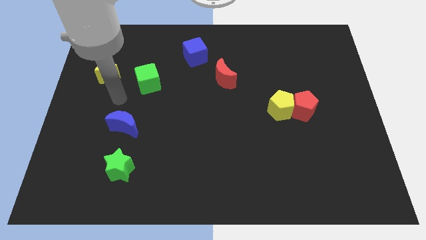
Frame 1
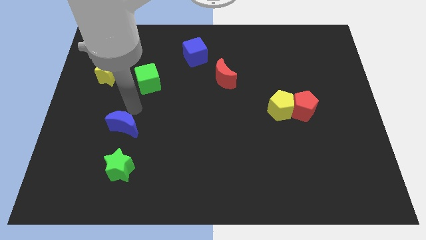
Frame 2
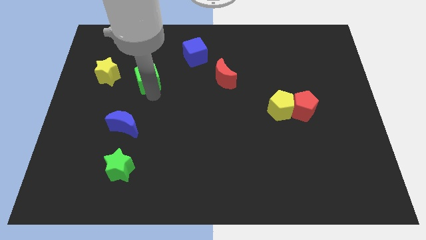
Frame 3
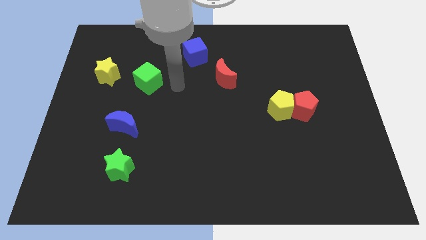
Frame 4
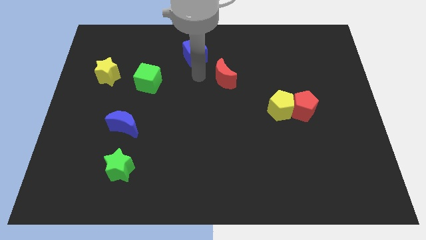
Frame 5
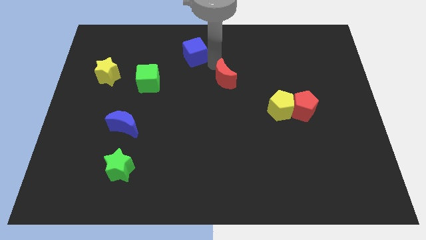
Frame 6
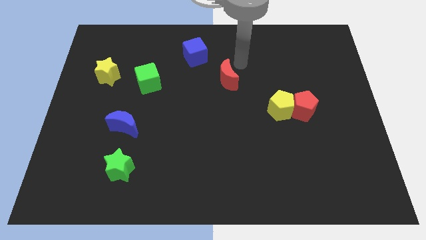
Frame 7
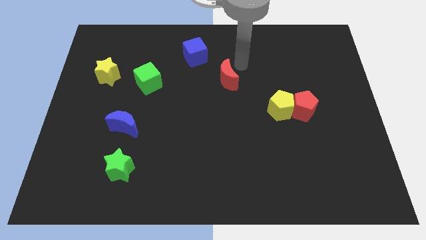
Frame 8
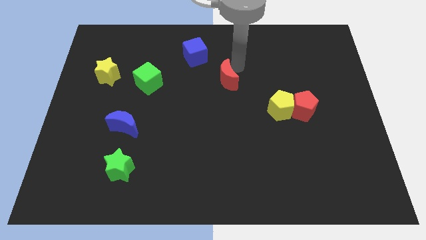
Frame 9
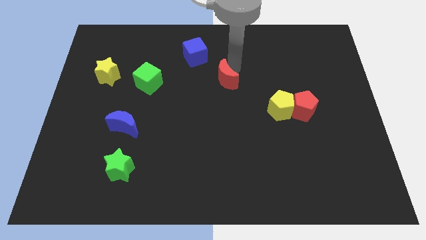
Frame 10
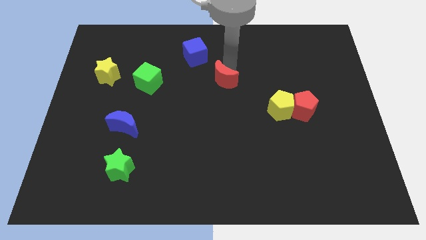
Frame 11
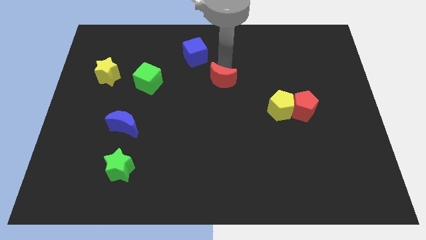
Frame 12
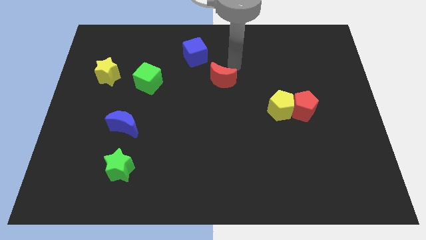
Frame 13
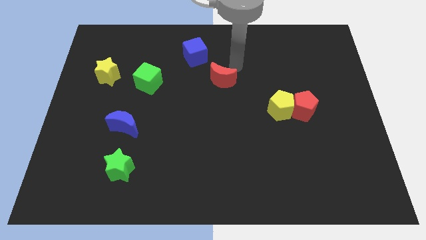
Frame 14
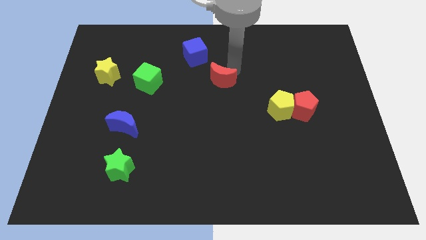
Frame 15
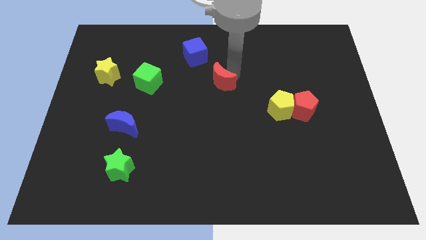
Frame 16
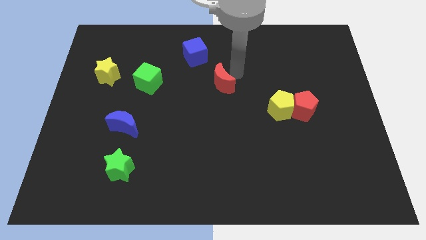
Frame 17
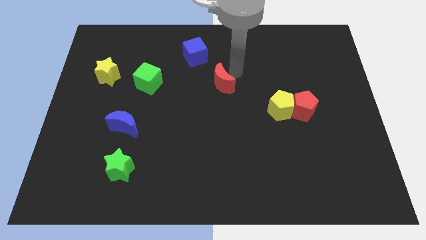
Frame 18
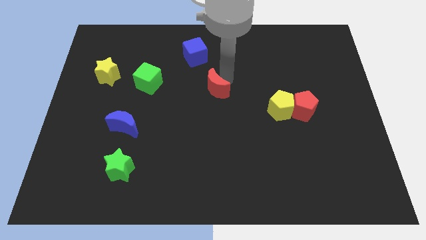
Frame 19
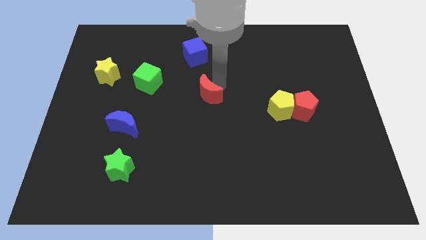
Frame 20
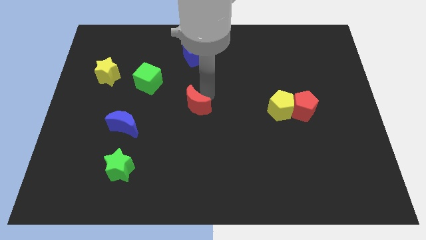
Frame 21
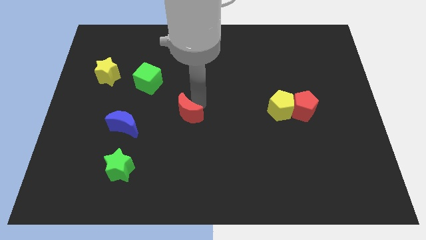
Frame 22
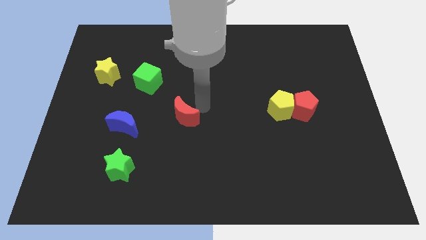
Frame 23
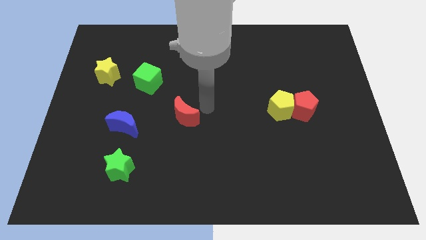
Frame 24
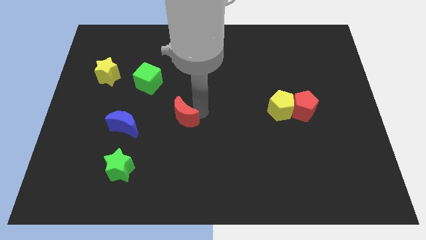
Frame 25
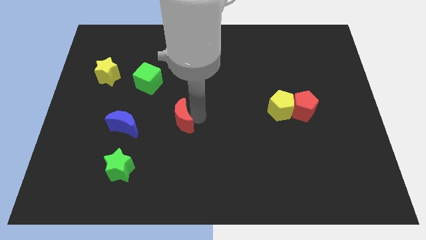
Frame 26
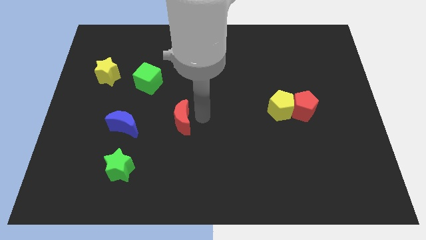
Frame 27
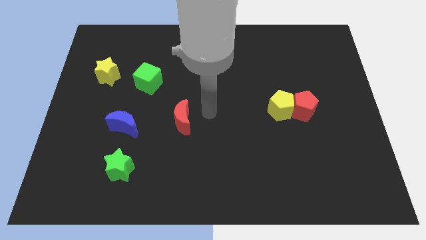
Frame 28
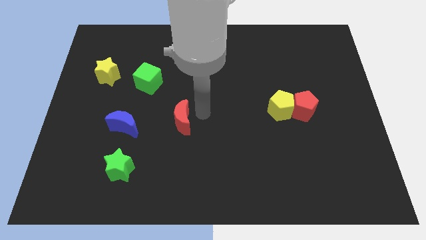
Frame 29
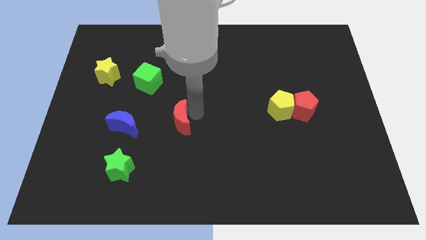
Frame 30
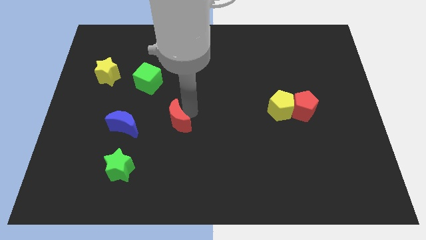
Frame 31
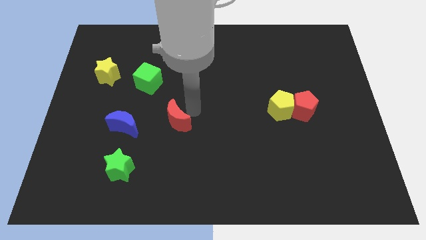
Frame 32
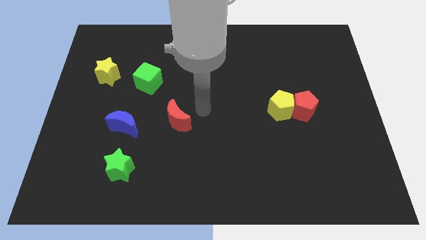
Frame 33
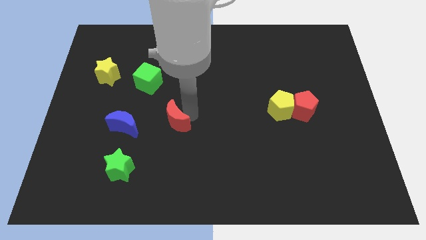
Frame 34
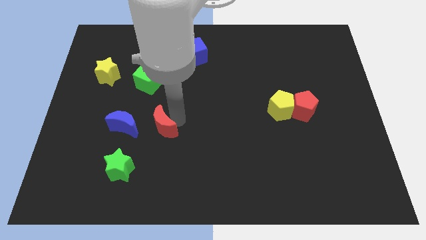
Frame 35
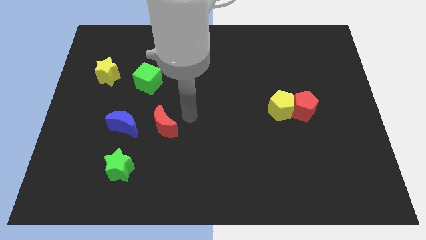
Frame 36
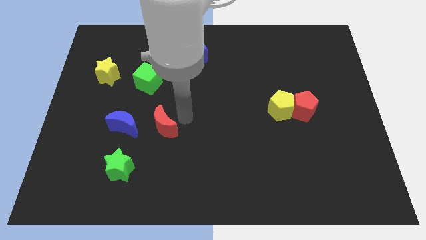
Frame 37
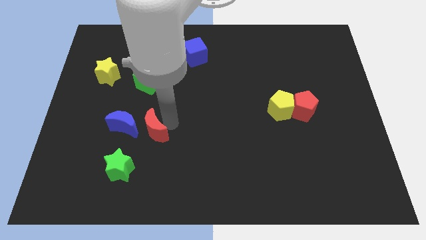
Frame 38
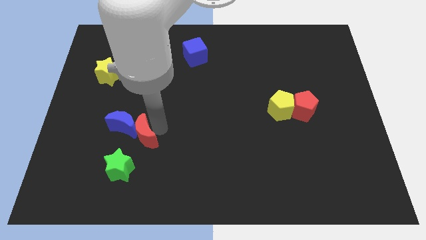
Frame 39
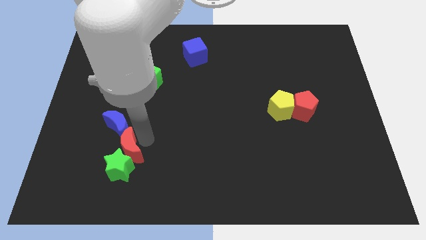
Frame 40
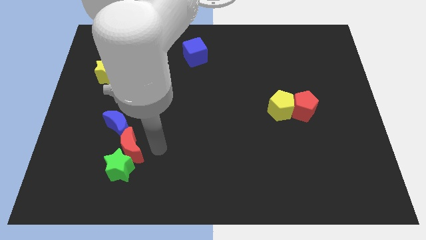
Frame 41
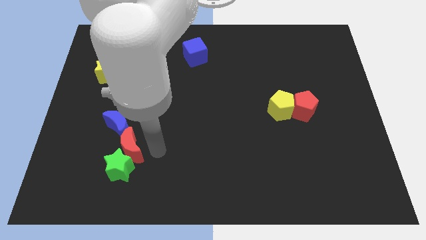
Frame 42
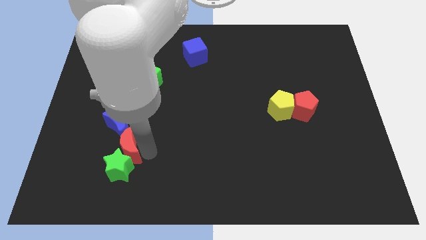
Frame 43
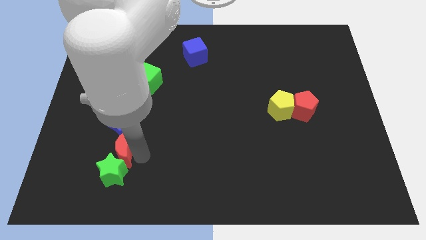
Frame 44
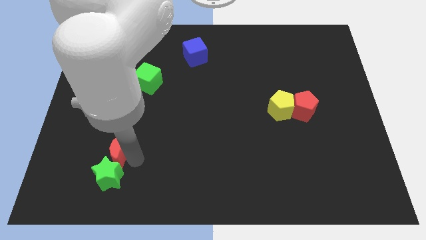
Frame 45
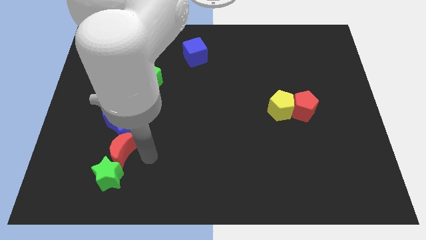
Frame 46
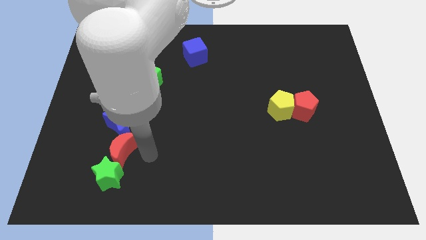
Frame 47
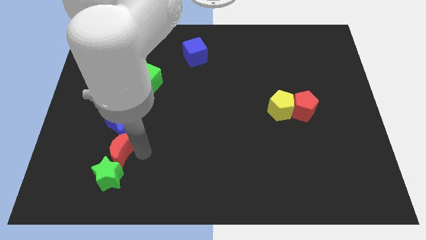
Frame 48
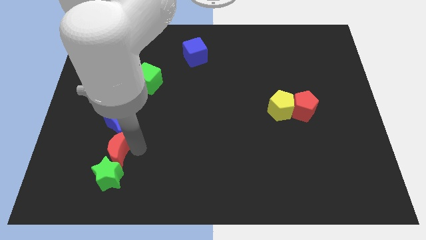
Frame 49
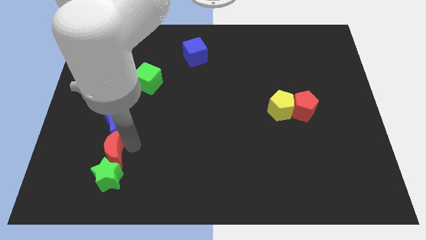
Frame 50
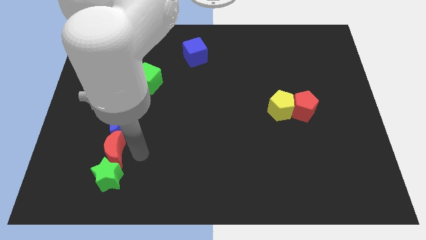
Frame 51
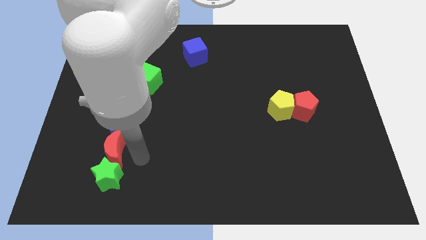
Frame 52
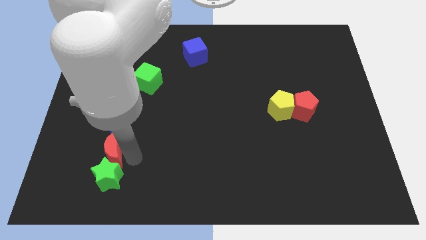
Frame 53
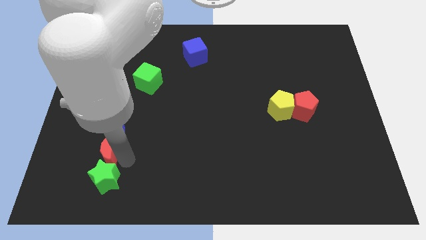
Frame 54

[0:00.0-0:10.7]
push the red moon diagonally down and to the left of the blue moon

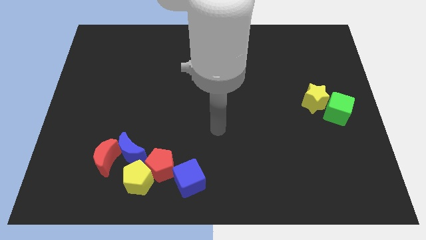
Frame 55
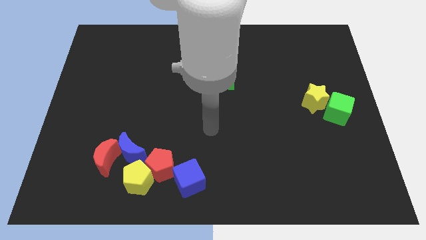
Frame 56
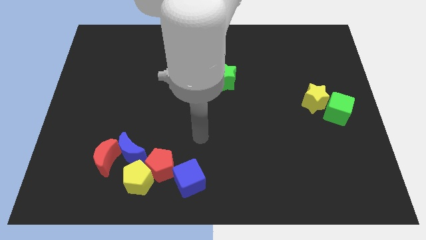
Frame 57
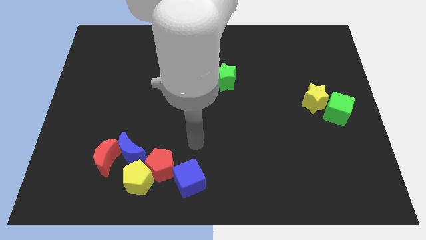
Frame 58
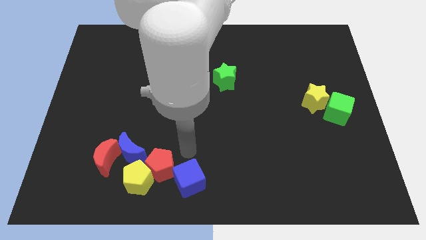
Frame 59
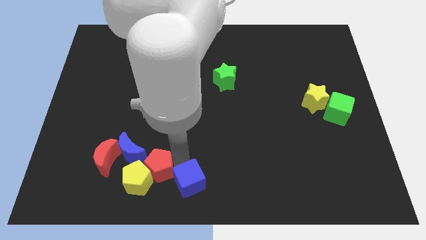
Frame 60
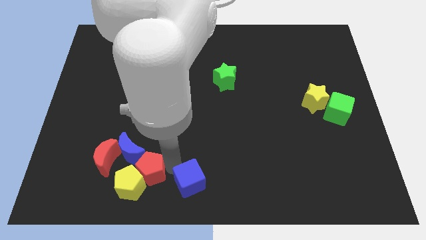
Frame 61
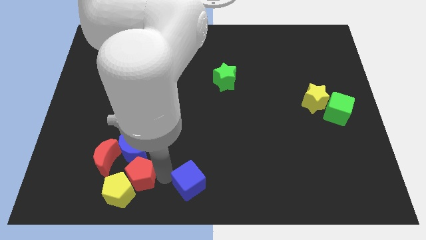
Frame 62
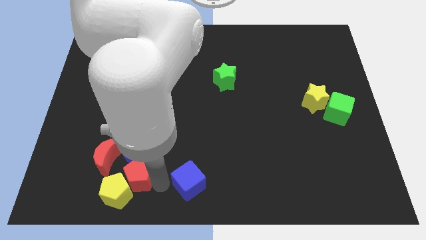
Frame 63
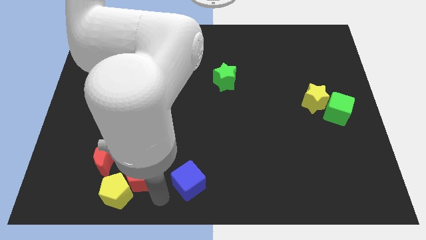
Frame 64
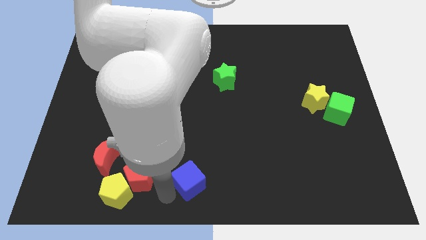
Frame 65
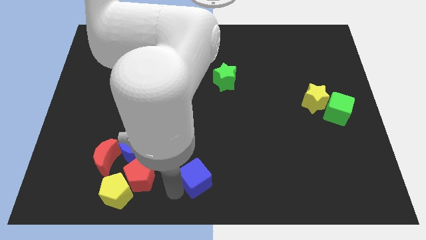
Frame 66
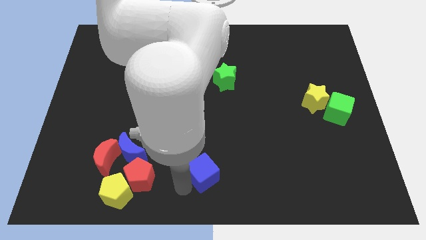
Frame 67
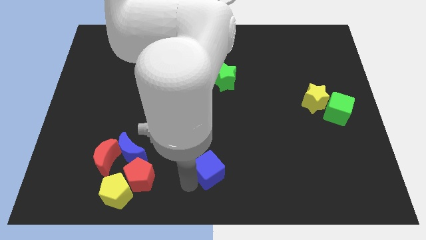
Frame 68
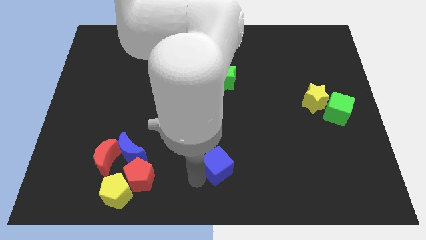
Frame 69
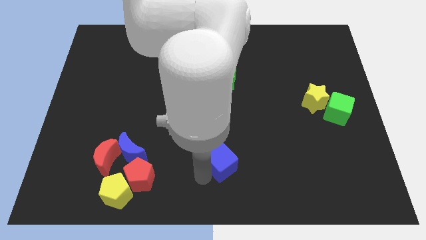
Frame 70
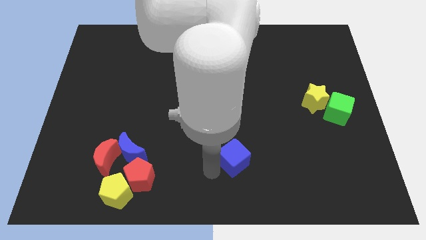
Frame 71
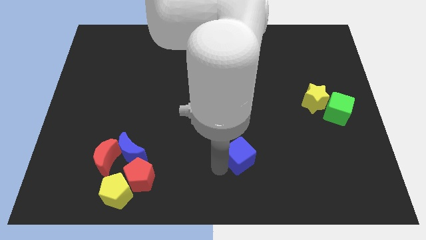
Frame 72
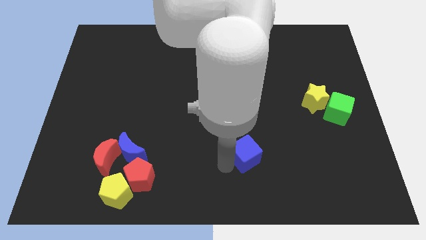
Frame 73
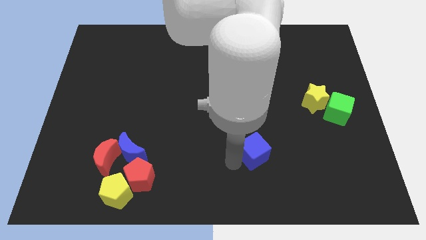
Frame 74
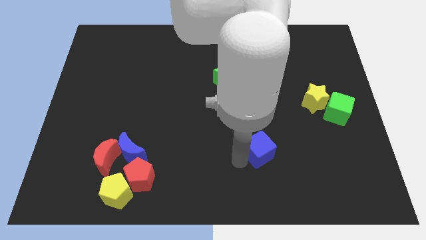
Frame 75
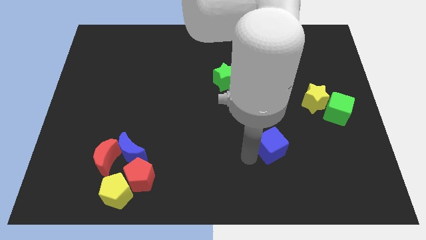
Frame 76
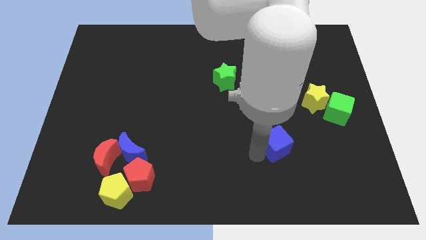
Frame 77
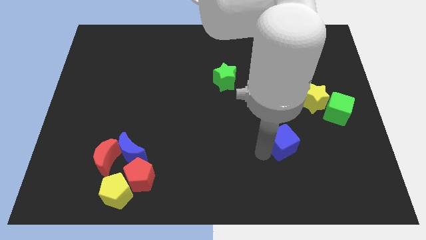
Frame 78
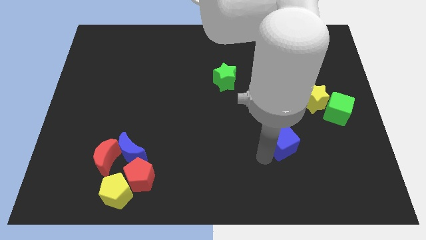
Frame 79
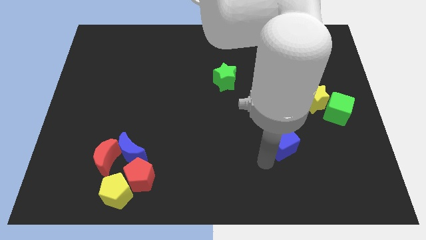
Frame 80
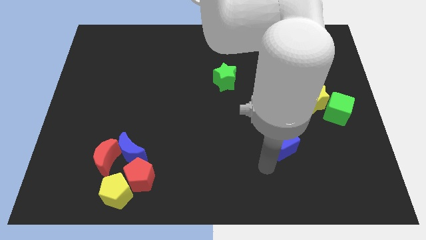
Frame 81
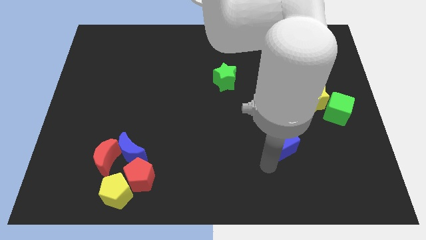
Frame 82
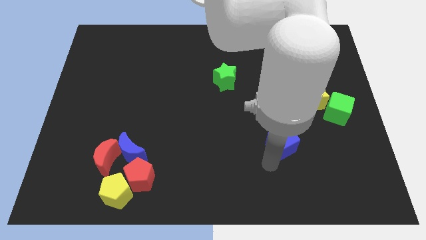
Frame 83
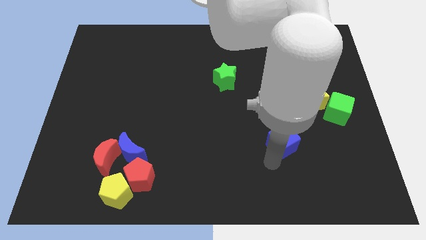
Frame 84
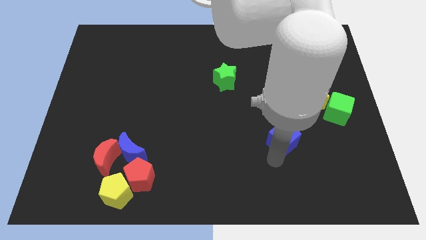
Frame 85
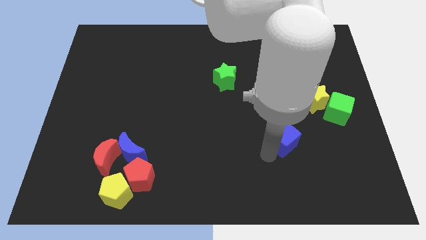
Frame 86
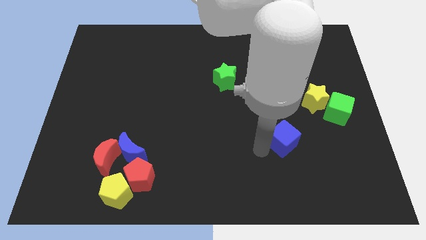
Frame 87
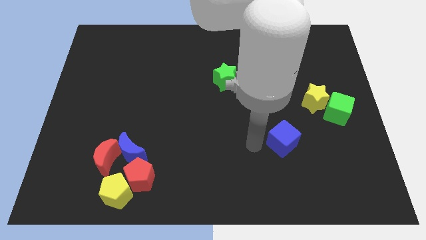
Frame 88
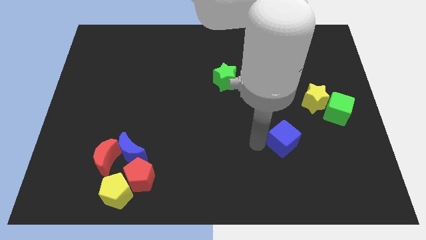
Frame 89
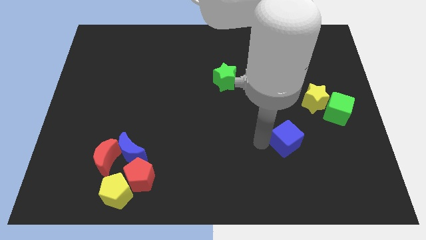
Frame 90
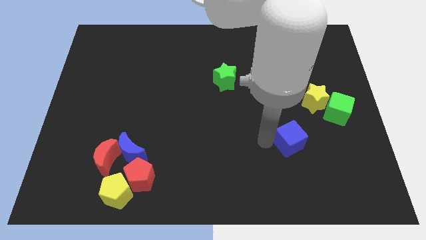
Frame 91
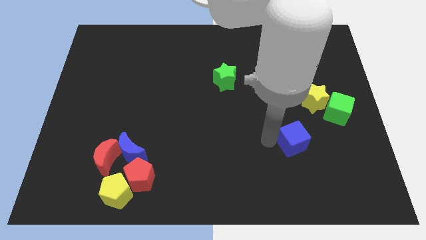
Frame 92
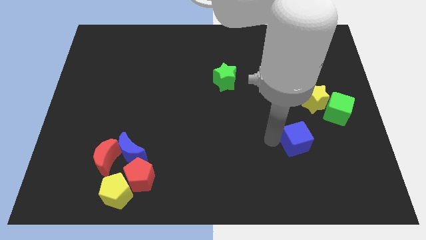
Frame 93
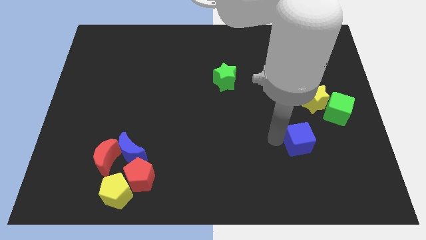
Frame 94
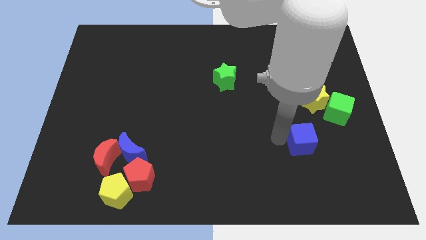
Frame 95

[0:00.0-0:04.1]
push the blue cube below the yellow star
